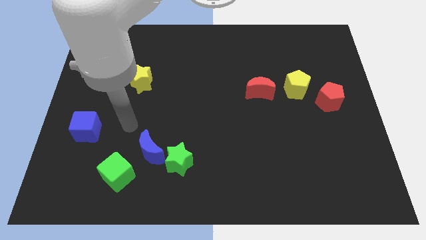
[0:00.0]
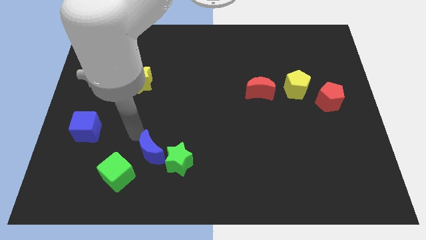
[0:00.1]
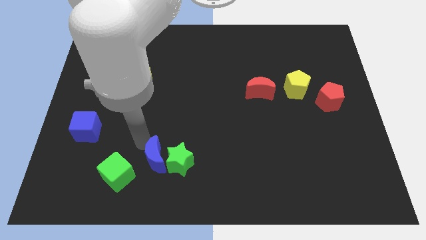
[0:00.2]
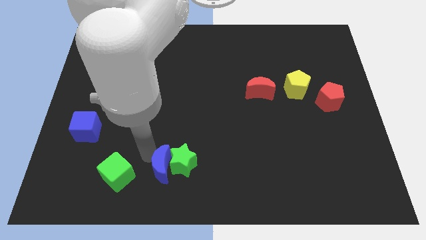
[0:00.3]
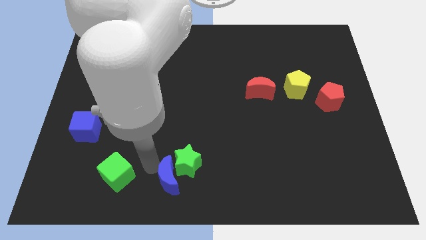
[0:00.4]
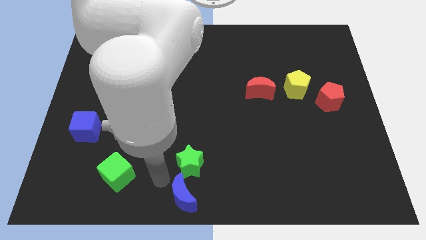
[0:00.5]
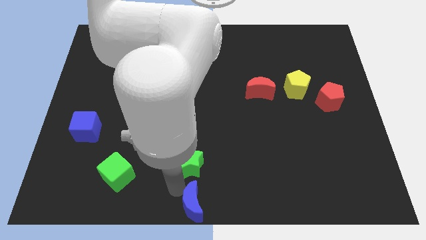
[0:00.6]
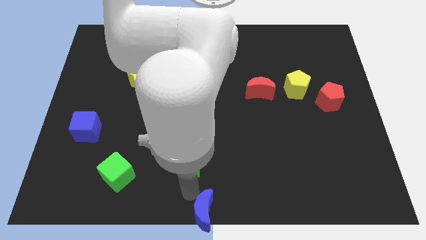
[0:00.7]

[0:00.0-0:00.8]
separate the green star from the blue moon

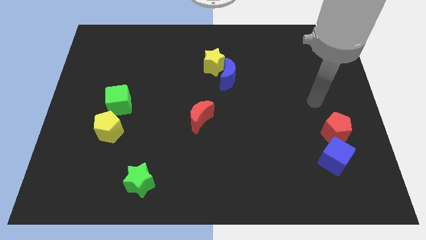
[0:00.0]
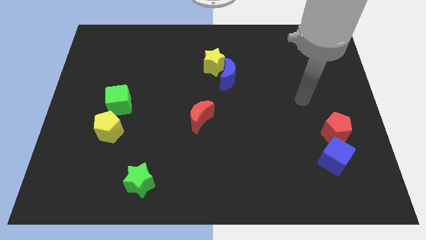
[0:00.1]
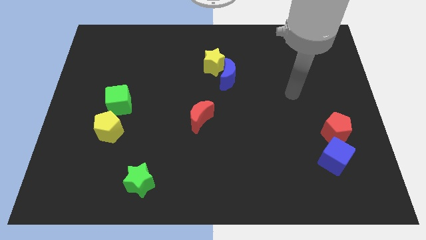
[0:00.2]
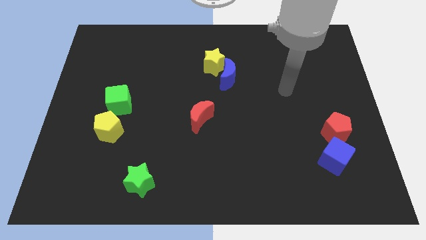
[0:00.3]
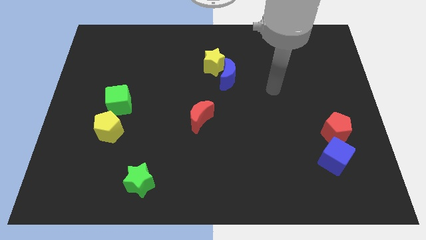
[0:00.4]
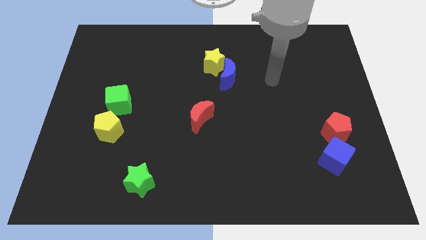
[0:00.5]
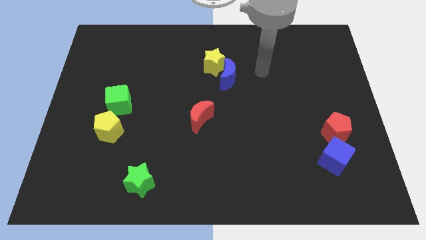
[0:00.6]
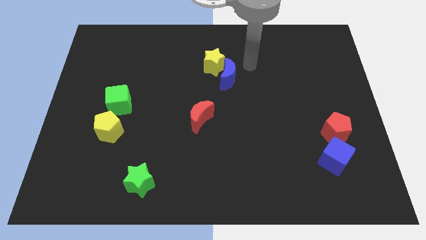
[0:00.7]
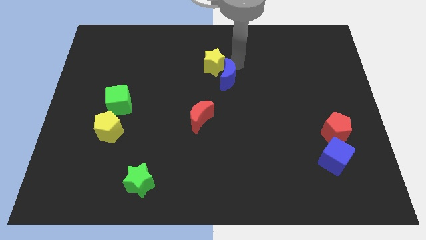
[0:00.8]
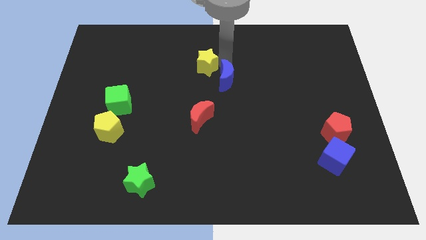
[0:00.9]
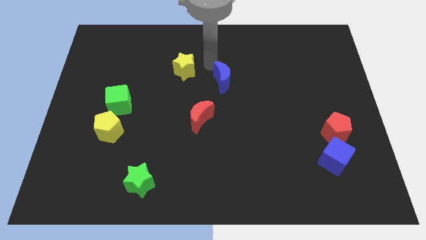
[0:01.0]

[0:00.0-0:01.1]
move the blue moon away from the yellow star

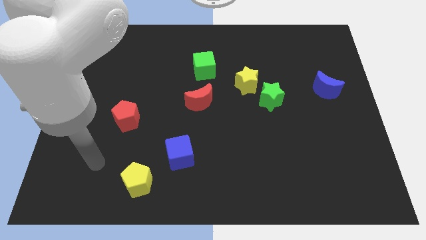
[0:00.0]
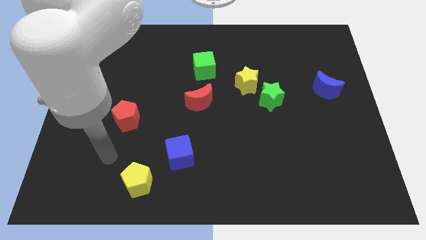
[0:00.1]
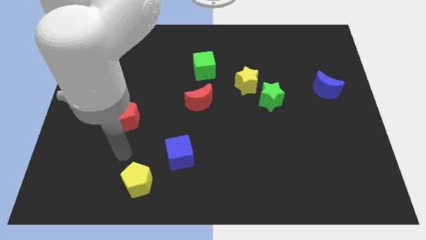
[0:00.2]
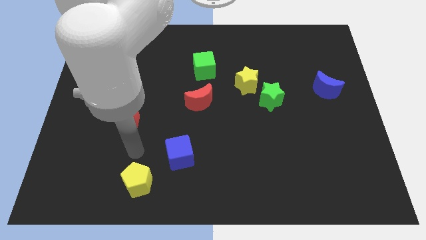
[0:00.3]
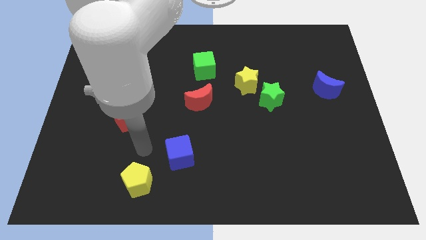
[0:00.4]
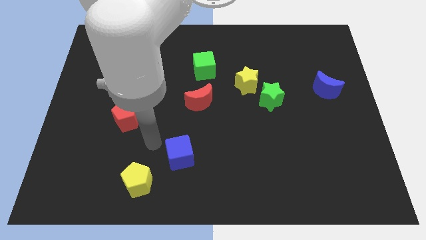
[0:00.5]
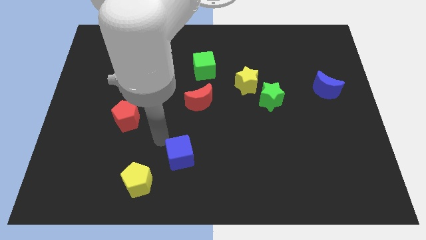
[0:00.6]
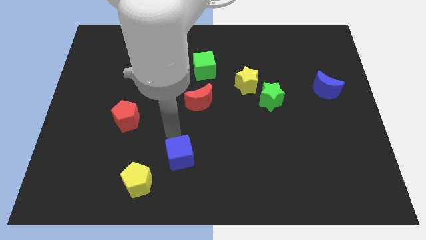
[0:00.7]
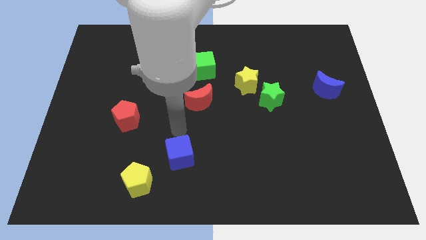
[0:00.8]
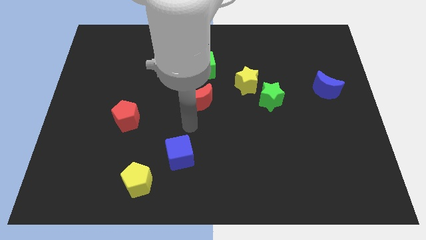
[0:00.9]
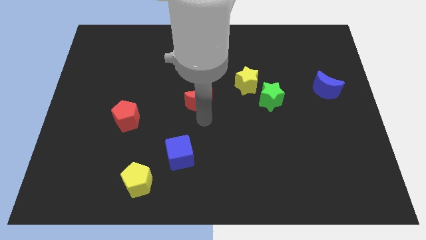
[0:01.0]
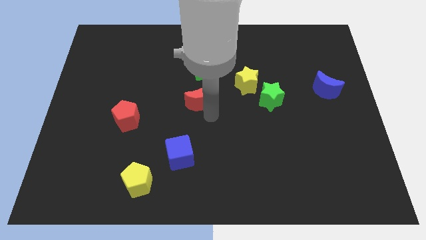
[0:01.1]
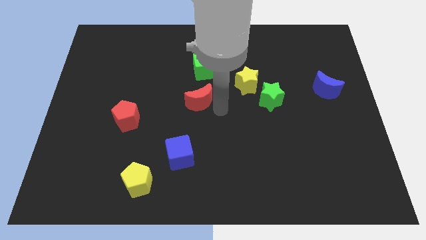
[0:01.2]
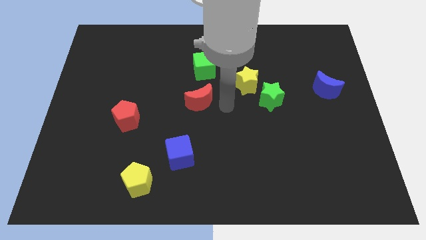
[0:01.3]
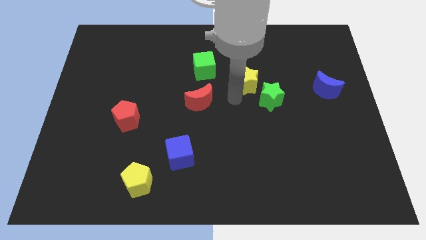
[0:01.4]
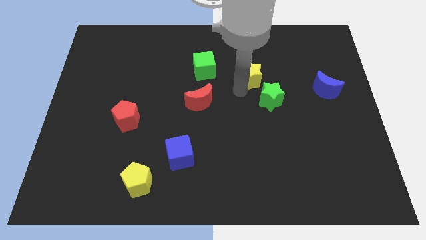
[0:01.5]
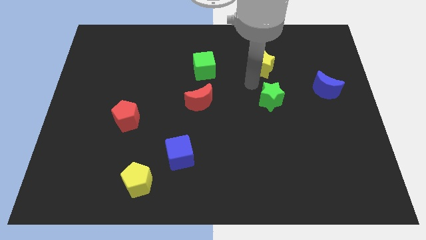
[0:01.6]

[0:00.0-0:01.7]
move the green star away from the yellow star

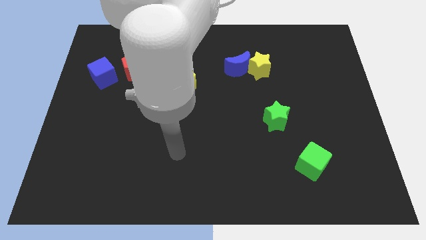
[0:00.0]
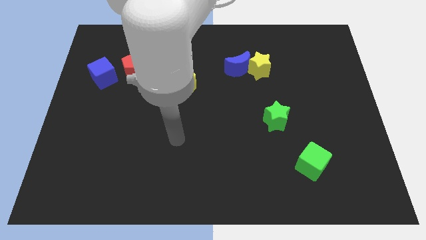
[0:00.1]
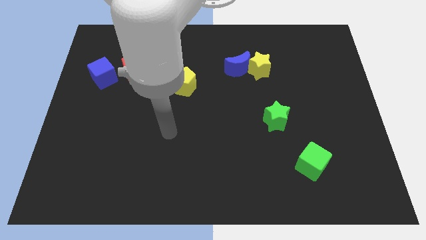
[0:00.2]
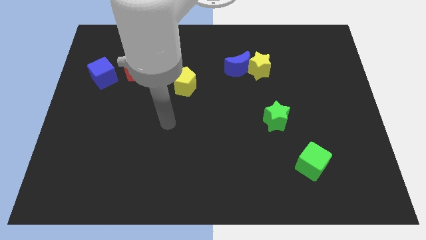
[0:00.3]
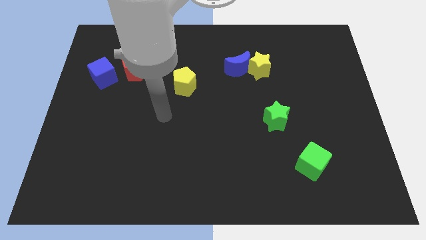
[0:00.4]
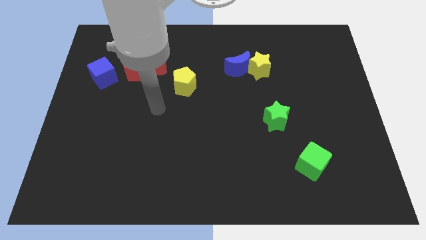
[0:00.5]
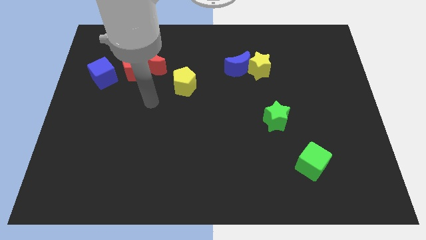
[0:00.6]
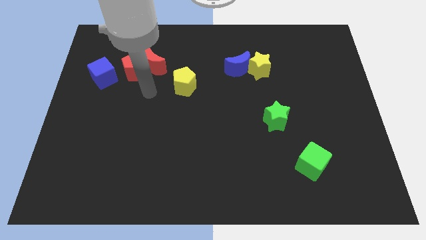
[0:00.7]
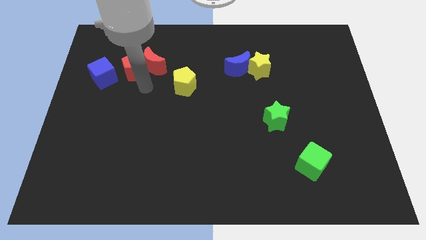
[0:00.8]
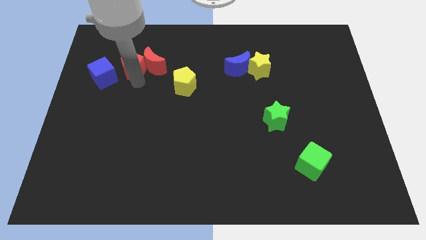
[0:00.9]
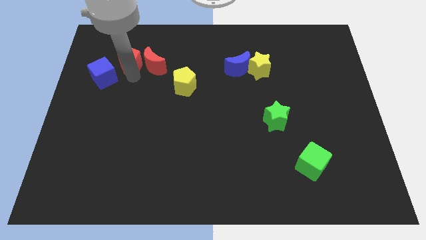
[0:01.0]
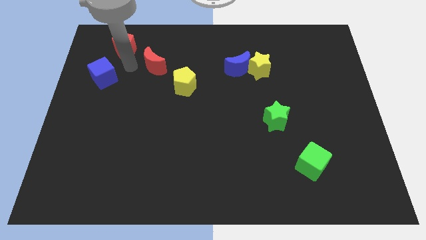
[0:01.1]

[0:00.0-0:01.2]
separate the red moon from the red pentagon

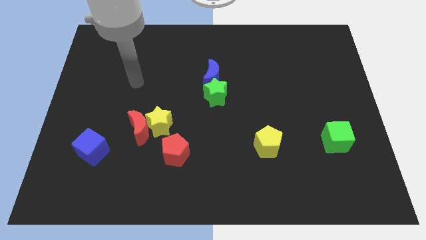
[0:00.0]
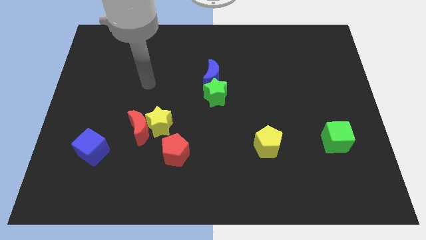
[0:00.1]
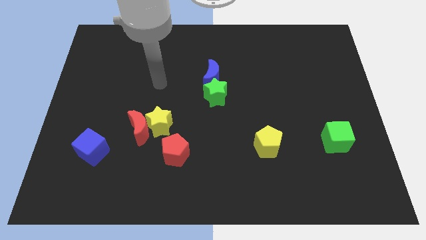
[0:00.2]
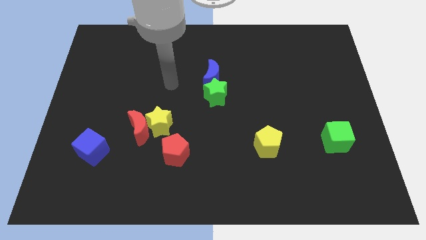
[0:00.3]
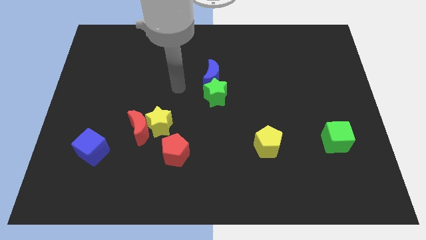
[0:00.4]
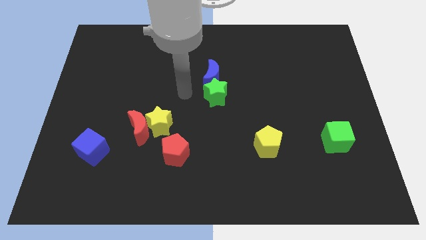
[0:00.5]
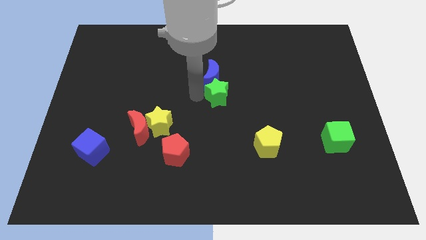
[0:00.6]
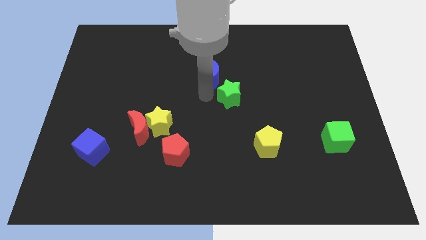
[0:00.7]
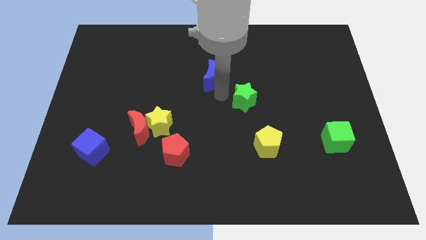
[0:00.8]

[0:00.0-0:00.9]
pull the blue moon apart from the green star

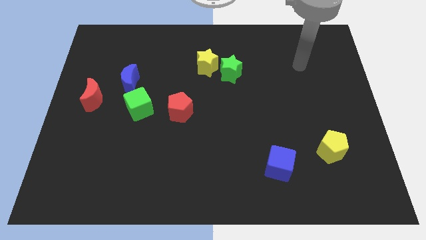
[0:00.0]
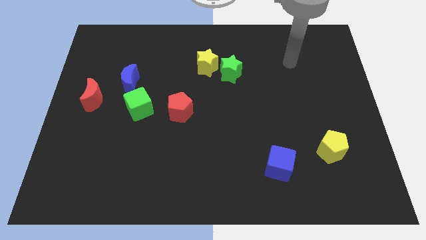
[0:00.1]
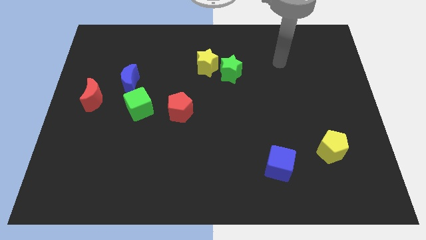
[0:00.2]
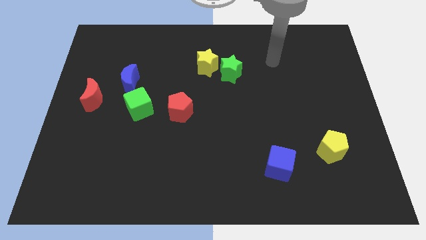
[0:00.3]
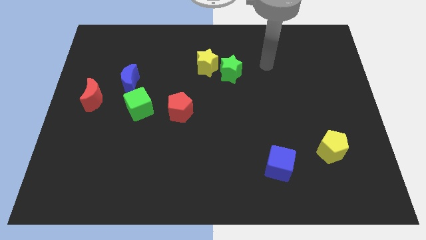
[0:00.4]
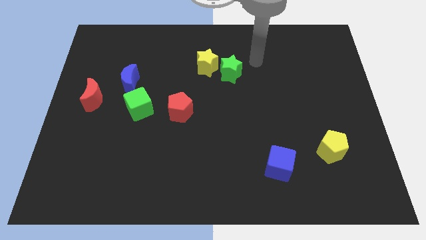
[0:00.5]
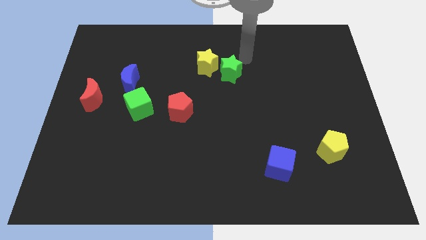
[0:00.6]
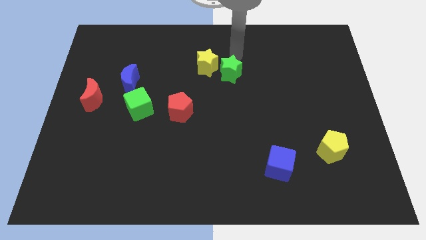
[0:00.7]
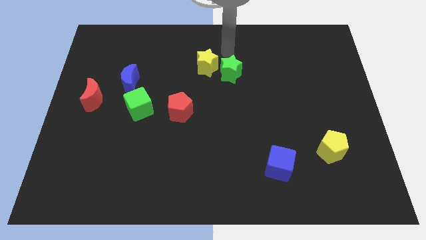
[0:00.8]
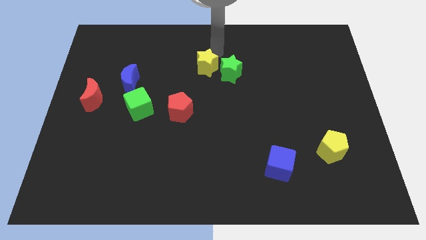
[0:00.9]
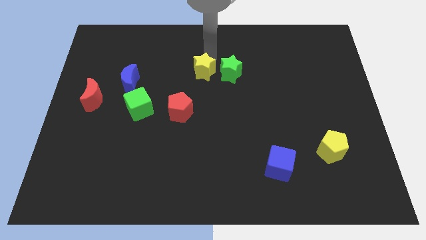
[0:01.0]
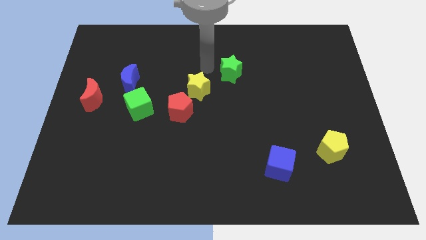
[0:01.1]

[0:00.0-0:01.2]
separate the green star from the yellow star

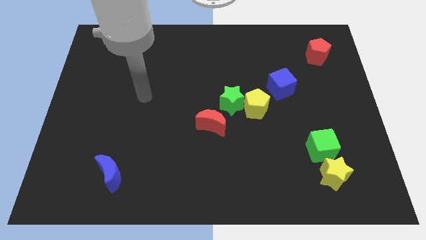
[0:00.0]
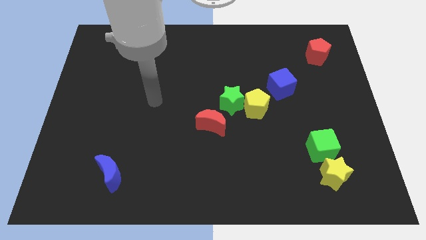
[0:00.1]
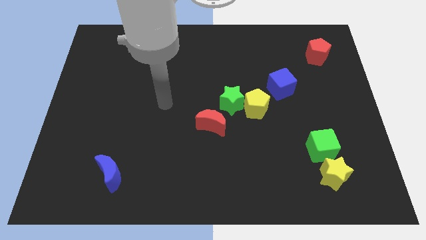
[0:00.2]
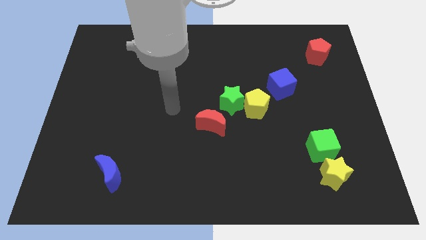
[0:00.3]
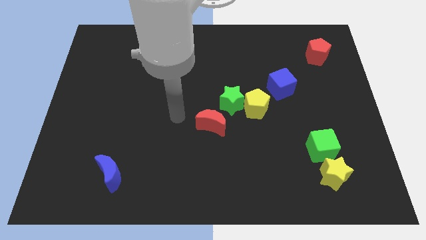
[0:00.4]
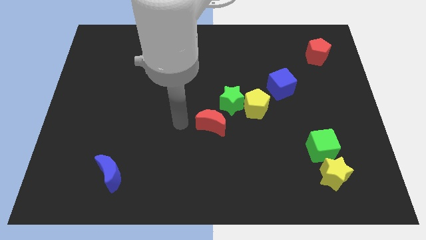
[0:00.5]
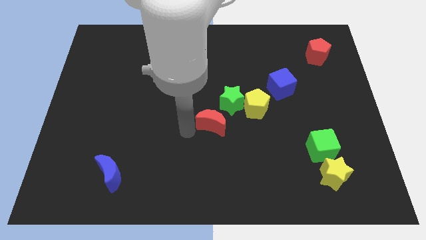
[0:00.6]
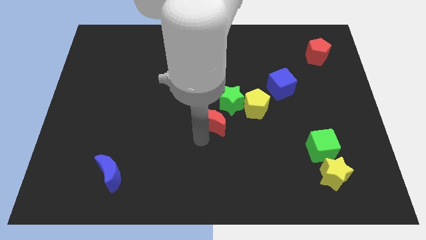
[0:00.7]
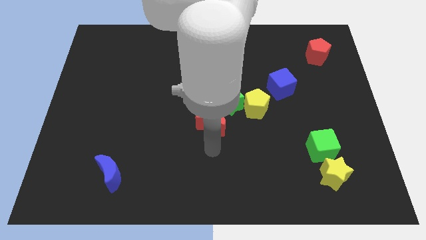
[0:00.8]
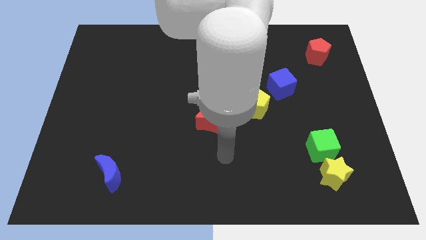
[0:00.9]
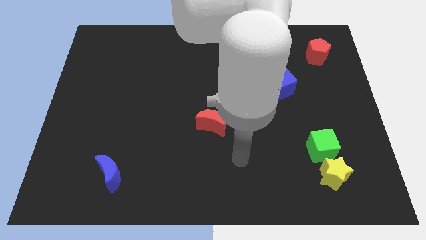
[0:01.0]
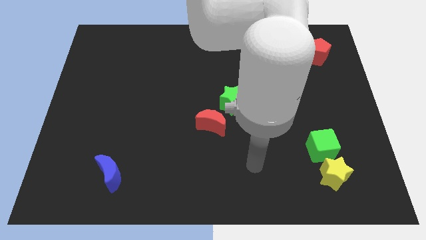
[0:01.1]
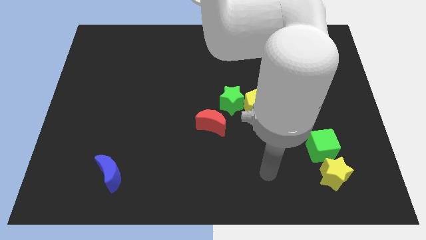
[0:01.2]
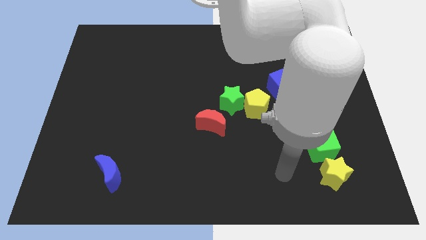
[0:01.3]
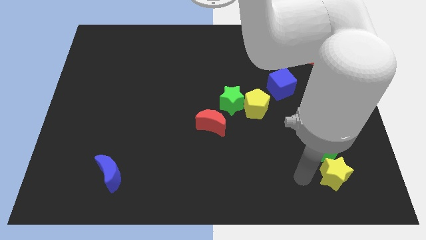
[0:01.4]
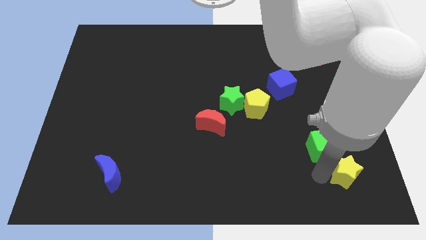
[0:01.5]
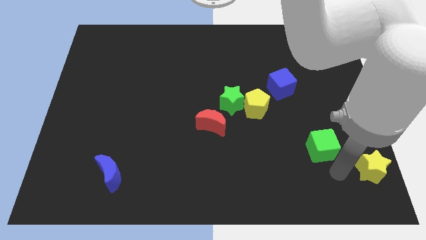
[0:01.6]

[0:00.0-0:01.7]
move the green cube away from the yellow star

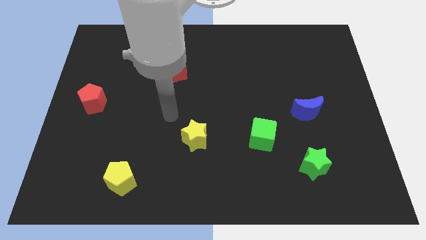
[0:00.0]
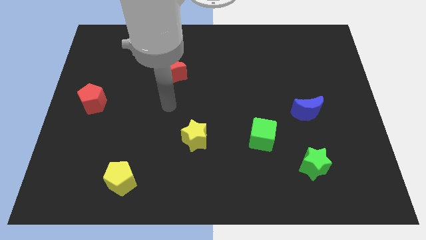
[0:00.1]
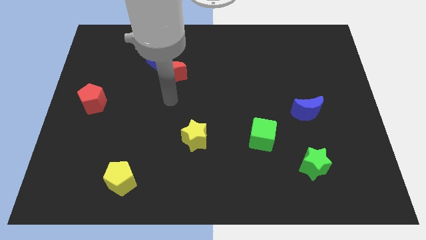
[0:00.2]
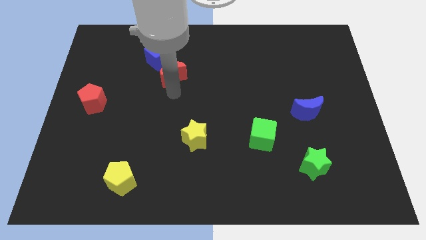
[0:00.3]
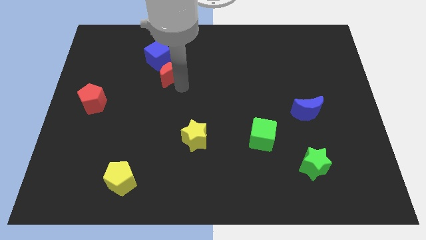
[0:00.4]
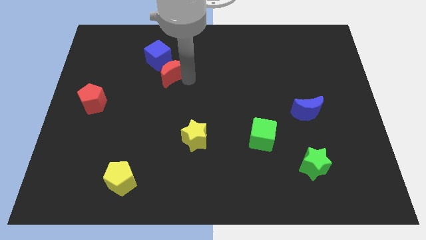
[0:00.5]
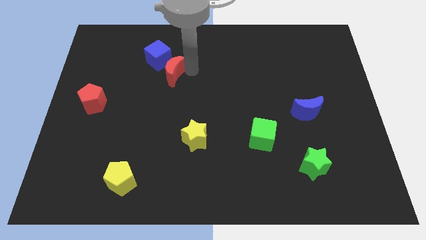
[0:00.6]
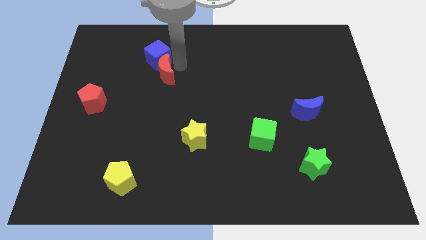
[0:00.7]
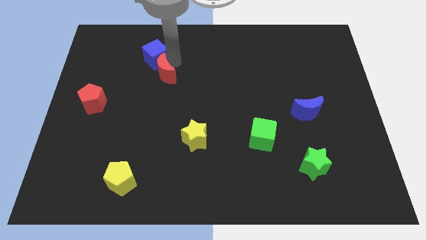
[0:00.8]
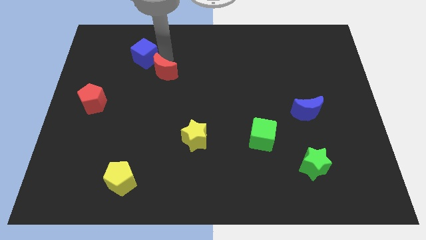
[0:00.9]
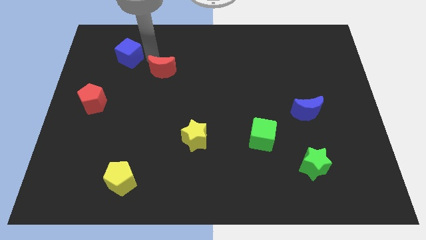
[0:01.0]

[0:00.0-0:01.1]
separate the red moon from the blue cube
